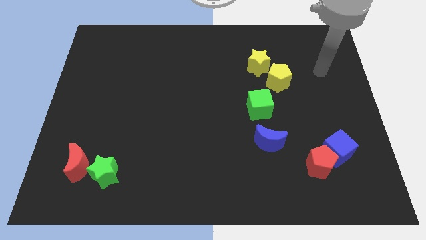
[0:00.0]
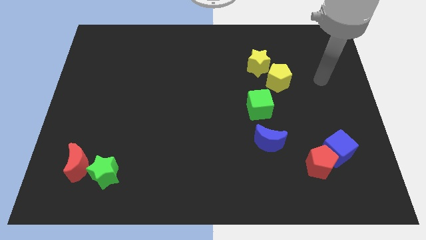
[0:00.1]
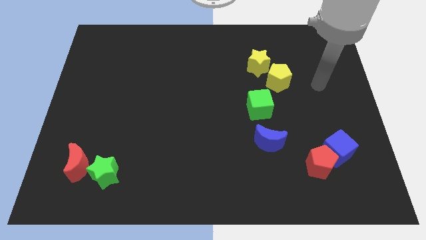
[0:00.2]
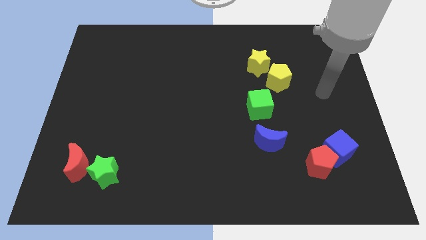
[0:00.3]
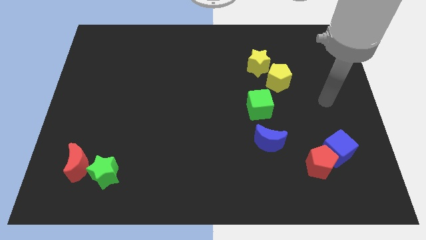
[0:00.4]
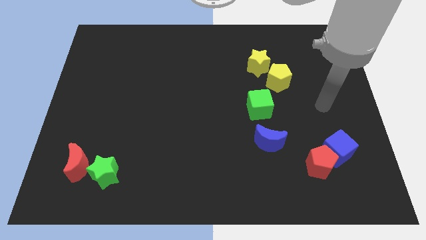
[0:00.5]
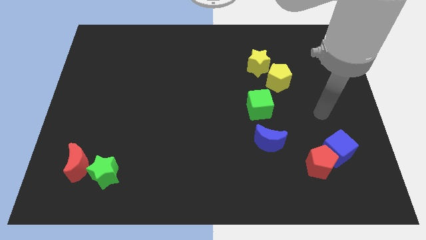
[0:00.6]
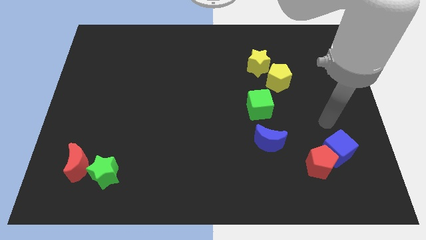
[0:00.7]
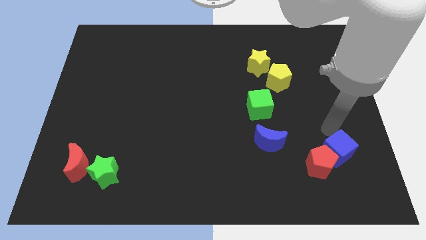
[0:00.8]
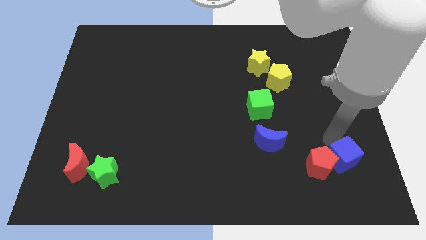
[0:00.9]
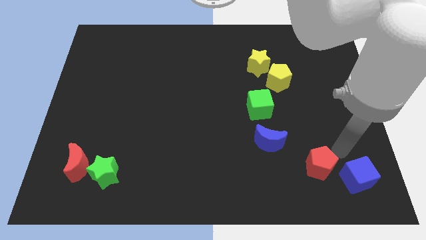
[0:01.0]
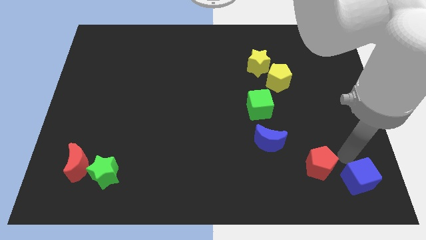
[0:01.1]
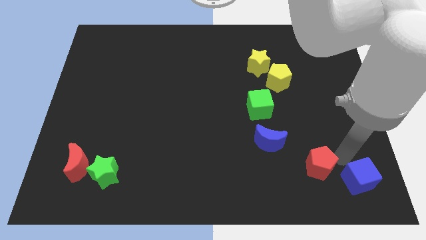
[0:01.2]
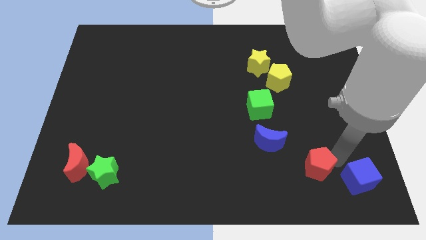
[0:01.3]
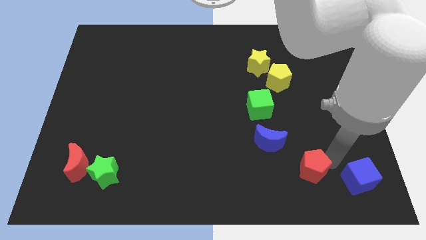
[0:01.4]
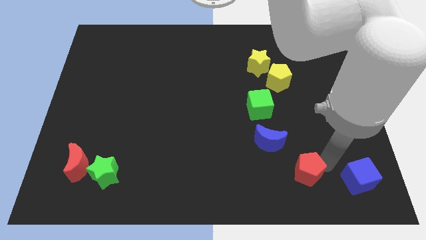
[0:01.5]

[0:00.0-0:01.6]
pull the red pentagon apart from the blue cube

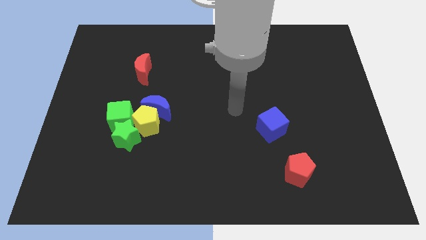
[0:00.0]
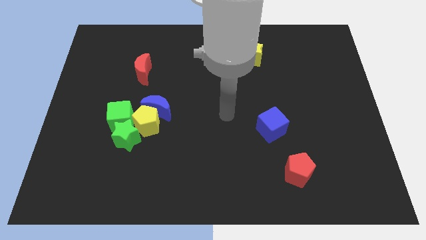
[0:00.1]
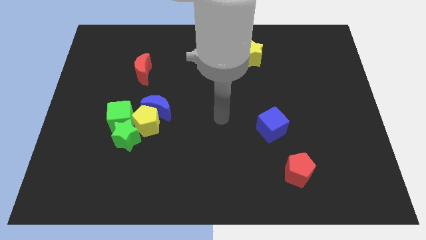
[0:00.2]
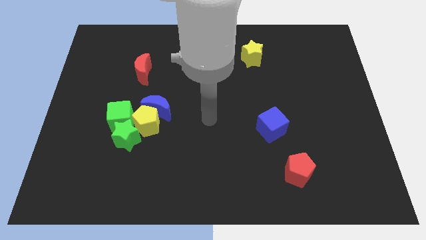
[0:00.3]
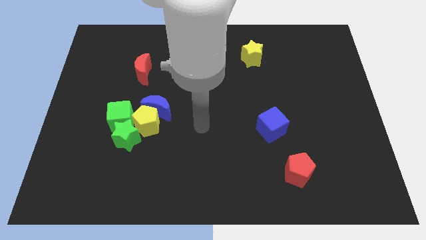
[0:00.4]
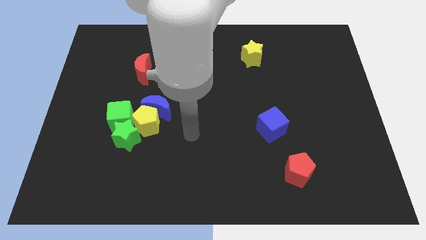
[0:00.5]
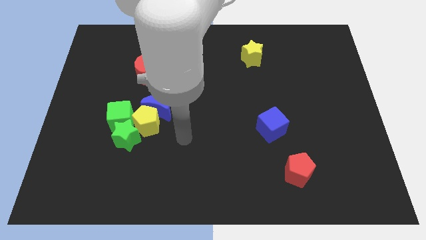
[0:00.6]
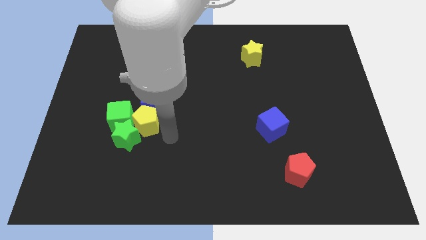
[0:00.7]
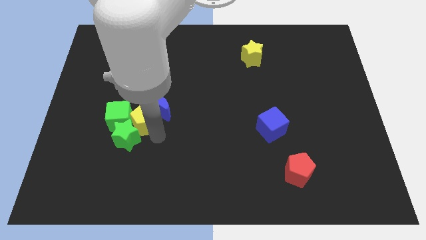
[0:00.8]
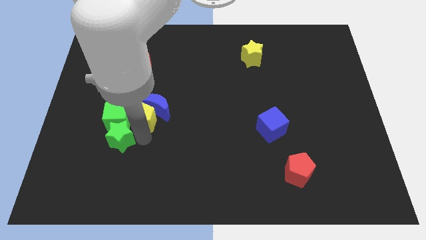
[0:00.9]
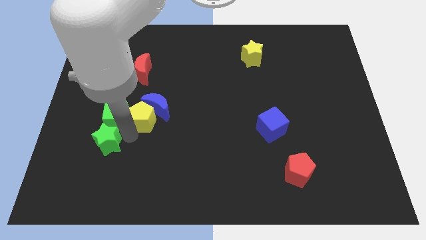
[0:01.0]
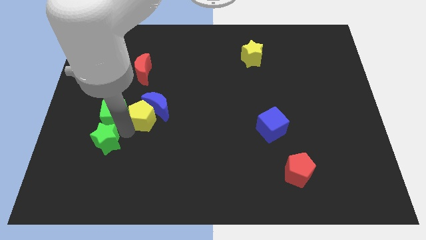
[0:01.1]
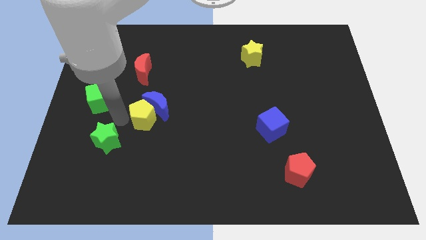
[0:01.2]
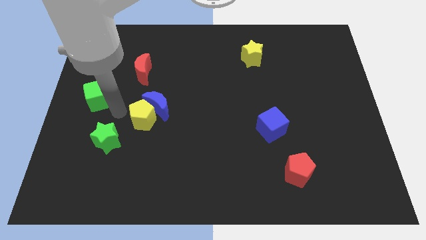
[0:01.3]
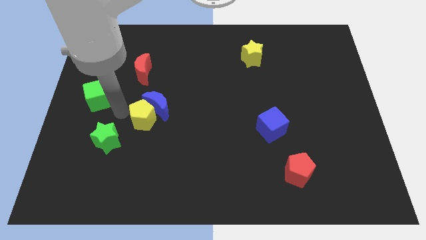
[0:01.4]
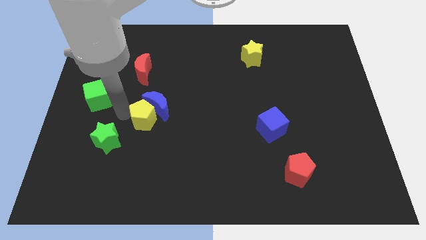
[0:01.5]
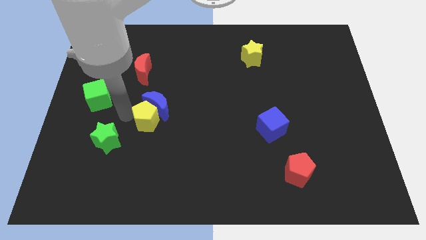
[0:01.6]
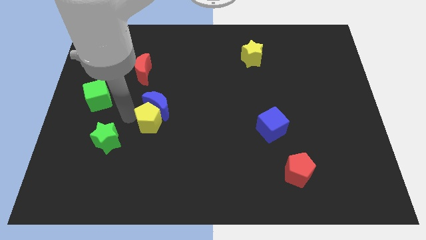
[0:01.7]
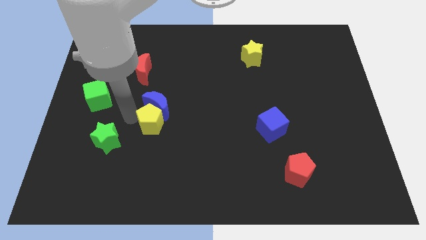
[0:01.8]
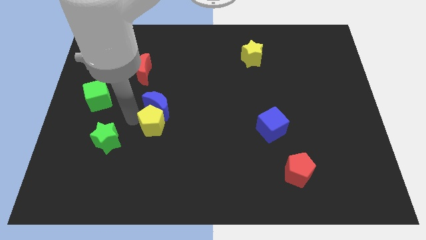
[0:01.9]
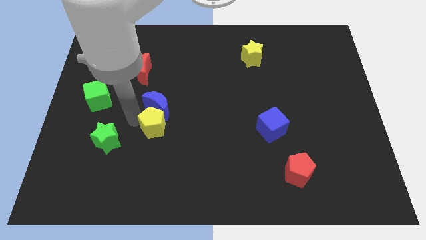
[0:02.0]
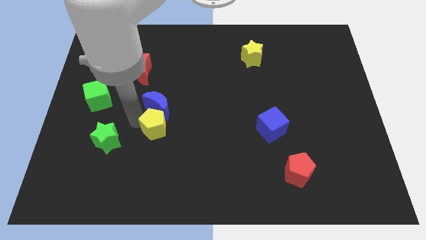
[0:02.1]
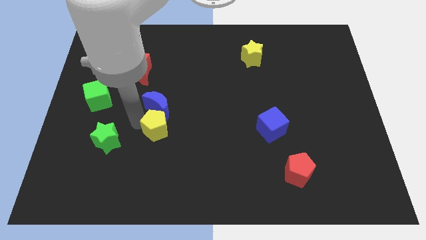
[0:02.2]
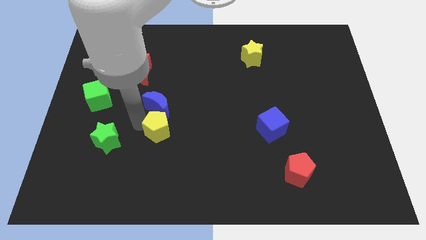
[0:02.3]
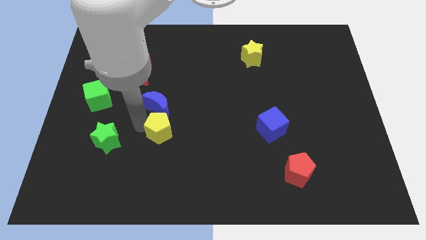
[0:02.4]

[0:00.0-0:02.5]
move the yellow pentagon away from the blue moon, green star, and green cube

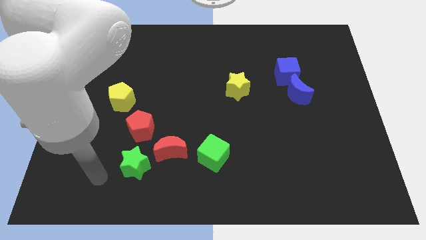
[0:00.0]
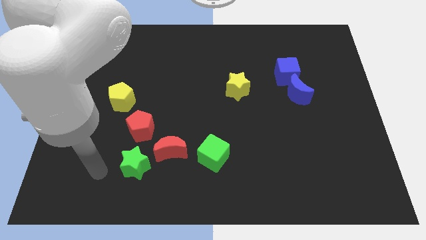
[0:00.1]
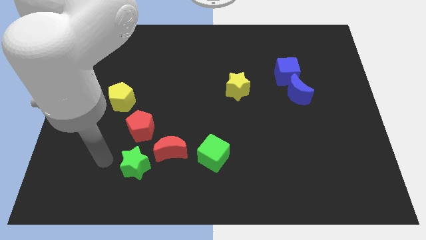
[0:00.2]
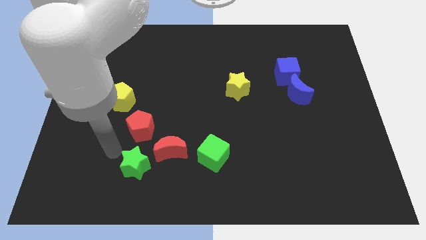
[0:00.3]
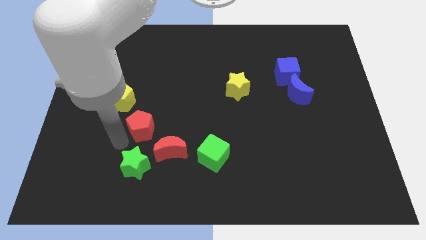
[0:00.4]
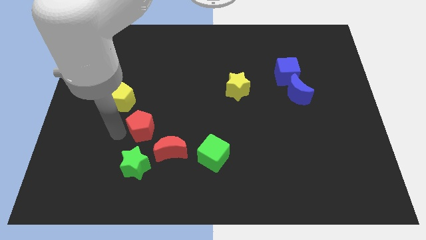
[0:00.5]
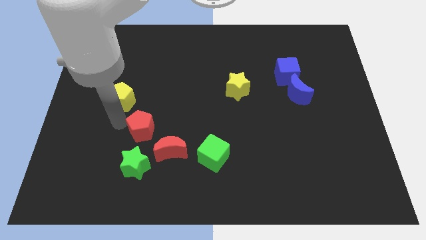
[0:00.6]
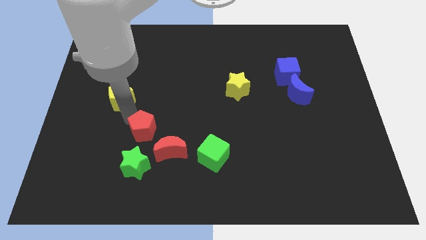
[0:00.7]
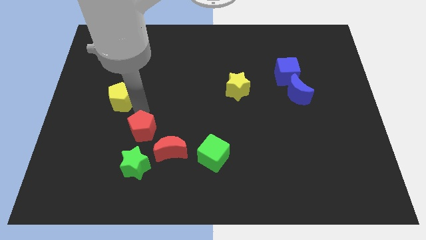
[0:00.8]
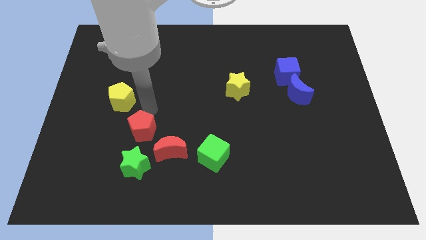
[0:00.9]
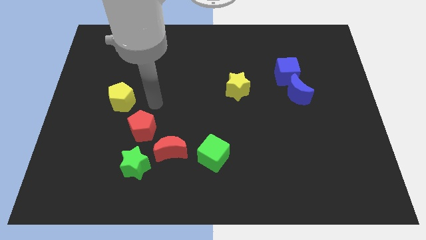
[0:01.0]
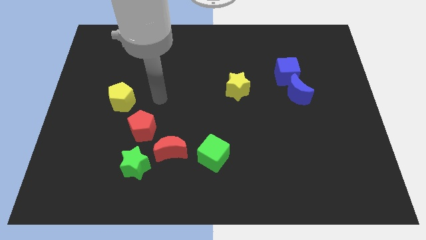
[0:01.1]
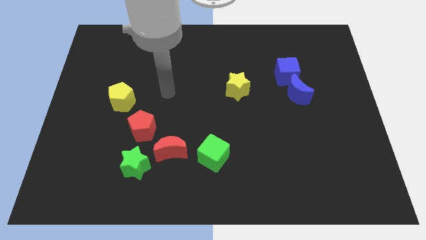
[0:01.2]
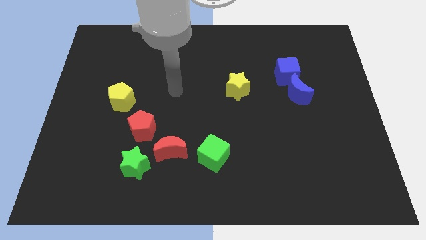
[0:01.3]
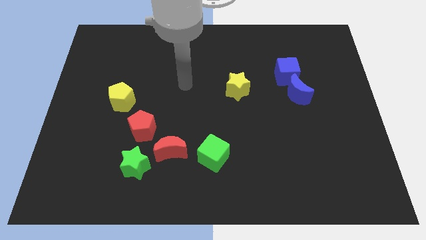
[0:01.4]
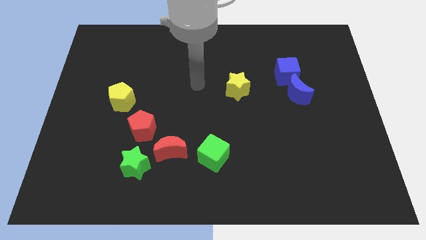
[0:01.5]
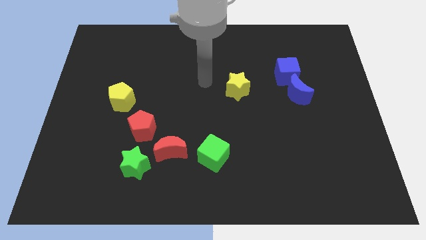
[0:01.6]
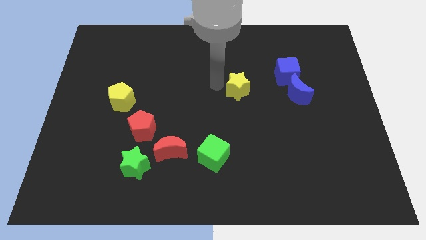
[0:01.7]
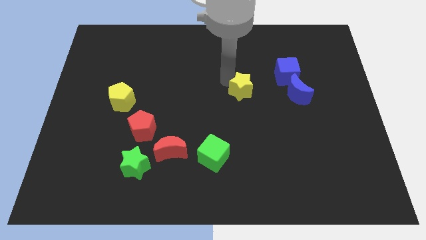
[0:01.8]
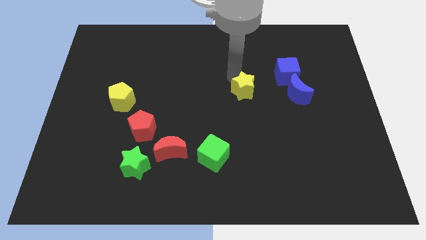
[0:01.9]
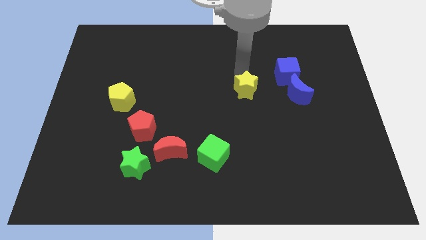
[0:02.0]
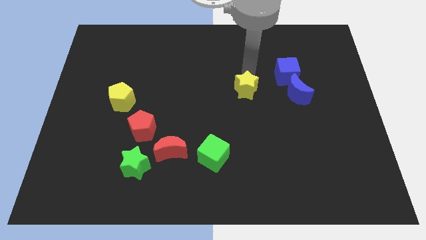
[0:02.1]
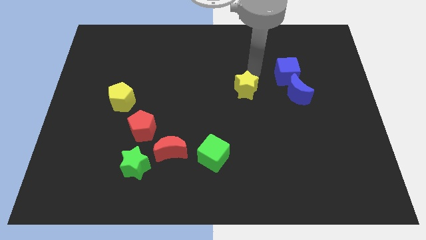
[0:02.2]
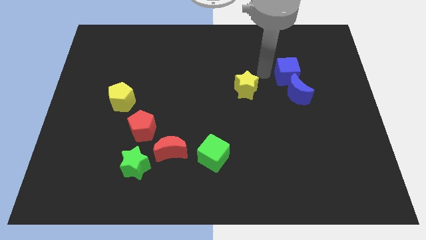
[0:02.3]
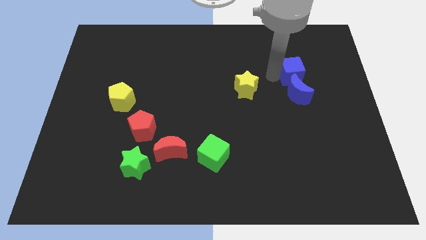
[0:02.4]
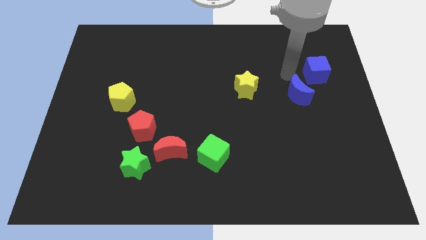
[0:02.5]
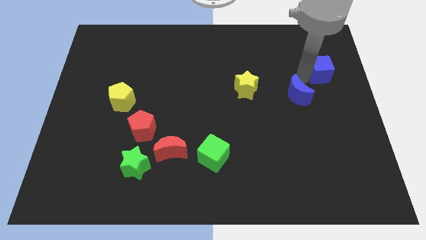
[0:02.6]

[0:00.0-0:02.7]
separate the blue moon from the blue cube

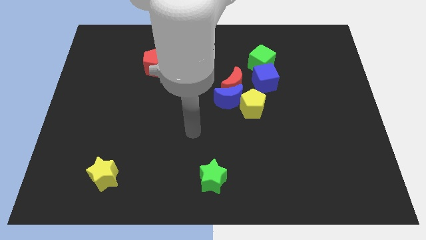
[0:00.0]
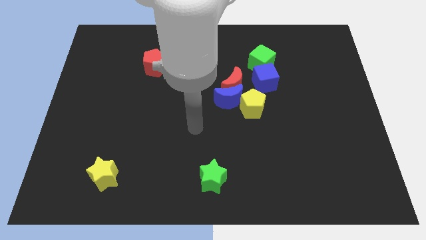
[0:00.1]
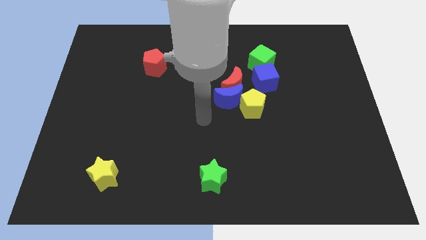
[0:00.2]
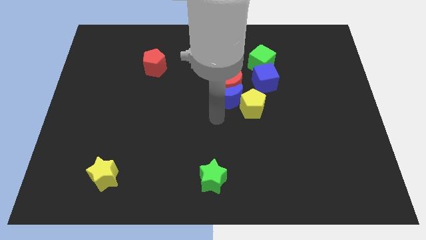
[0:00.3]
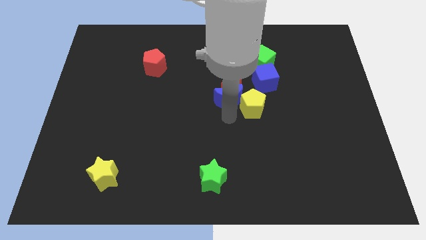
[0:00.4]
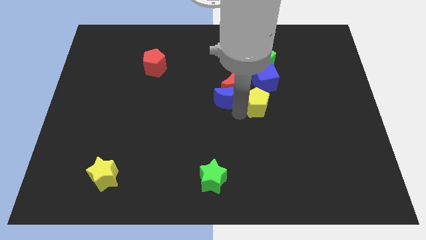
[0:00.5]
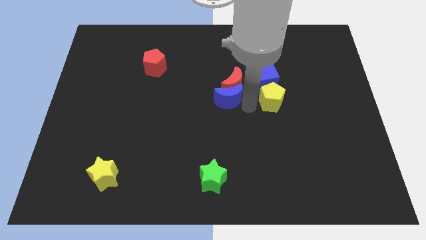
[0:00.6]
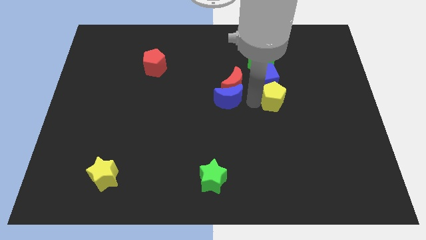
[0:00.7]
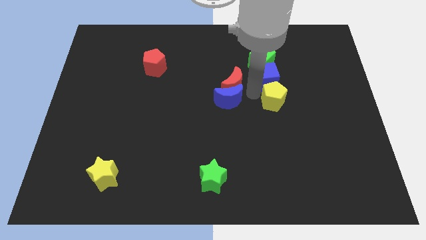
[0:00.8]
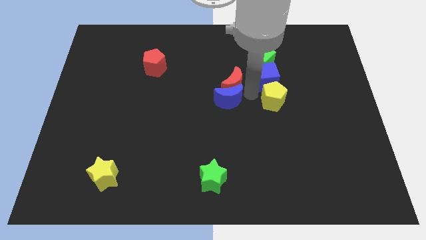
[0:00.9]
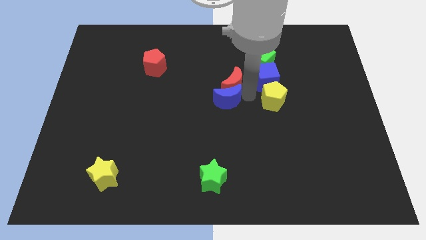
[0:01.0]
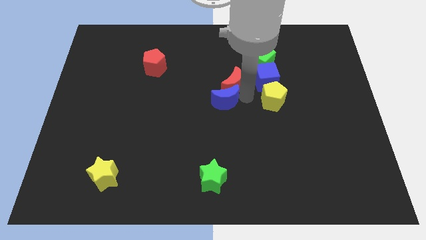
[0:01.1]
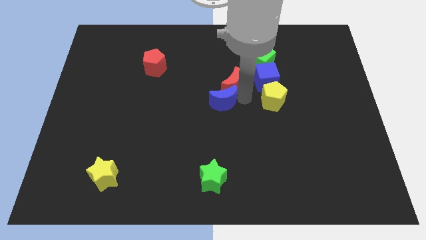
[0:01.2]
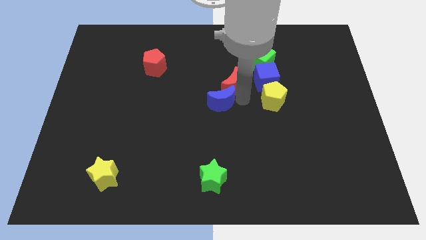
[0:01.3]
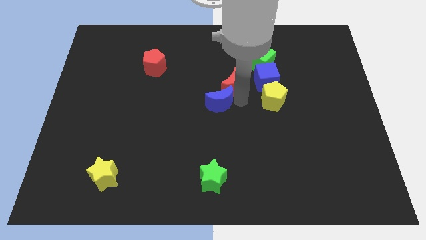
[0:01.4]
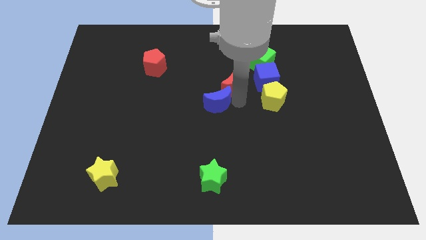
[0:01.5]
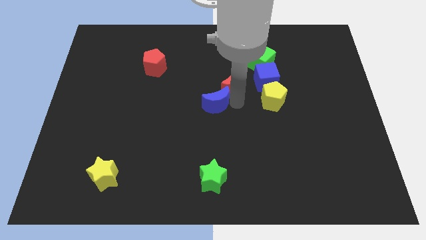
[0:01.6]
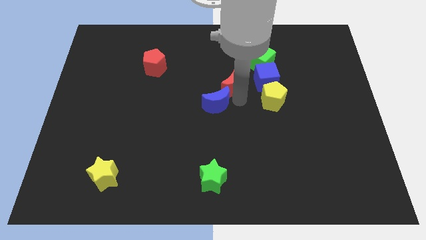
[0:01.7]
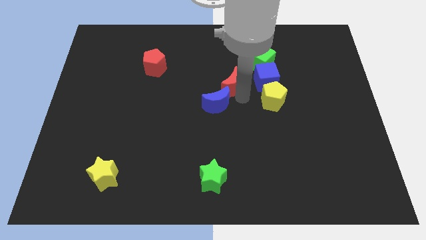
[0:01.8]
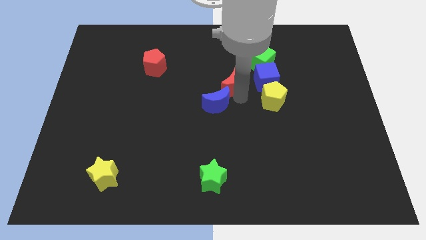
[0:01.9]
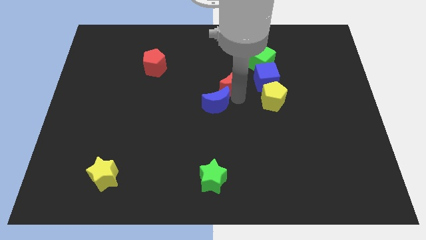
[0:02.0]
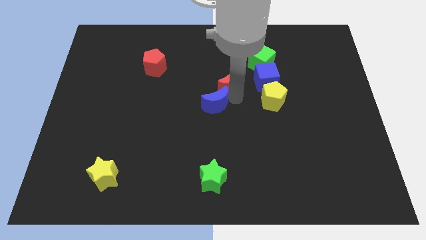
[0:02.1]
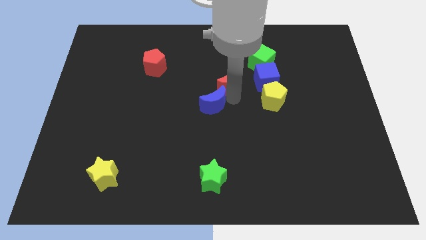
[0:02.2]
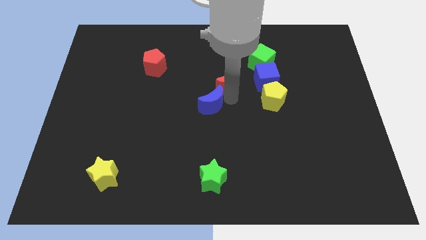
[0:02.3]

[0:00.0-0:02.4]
move the blue moon away from the red moon and yellow pentagon

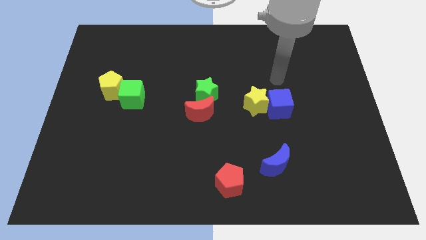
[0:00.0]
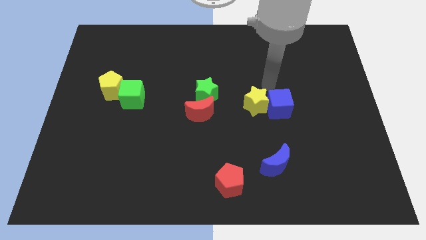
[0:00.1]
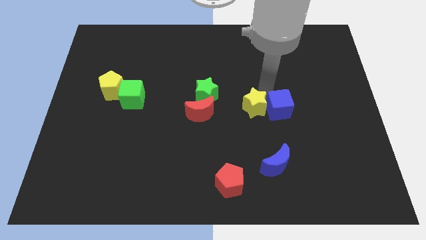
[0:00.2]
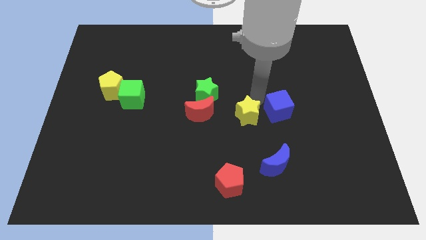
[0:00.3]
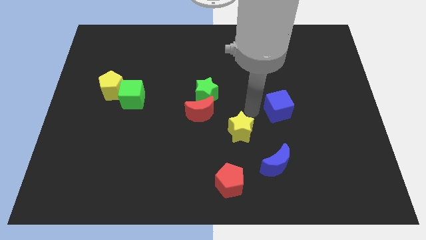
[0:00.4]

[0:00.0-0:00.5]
move the blue cube away from the yellow star
